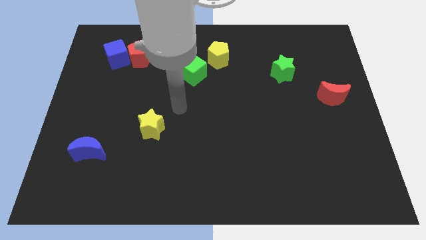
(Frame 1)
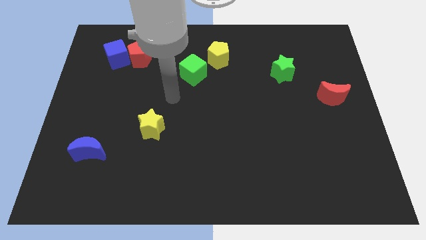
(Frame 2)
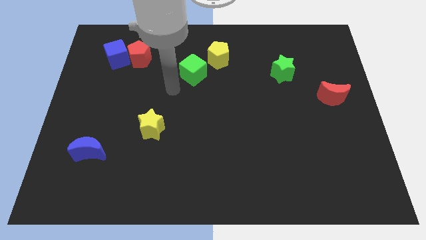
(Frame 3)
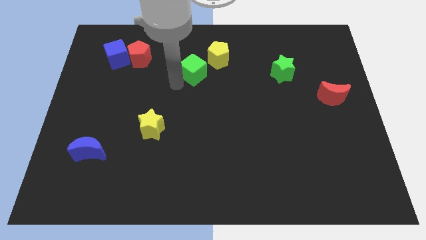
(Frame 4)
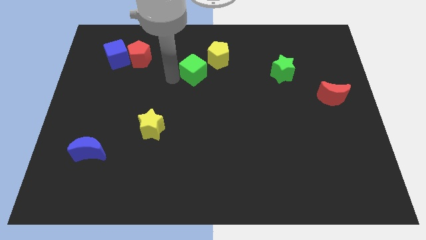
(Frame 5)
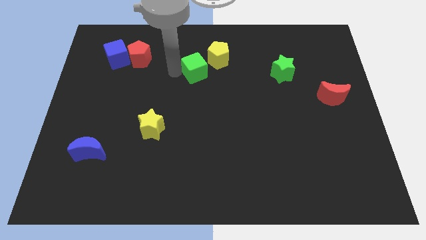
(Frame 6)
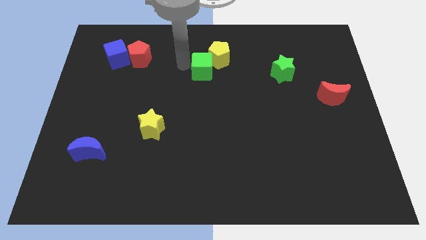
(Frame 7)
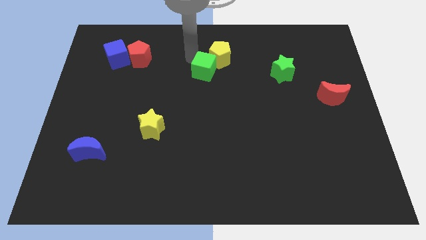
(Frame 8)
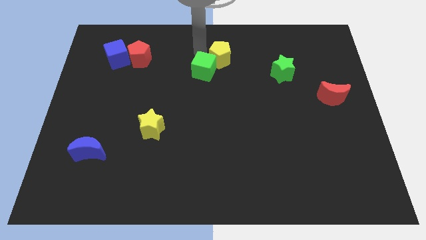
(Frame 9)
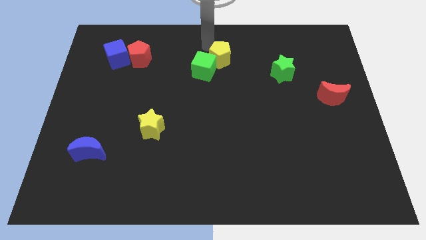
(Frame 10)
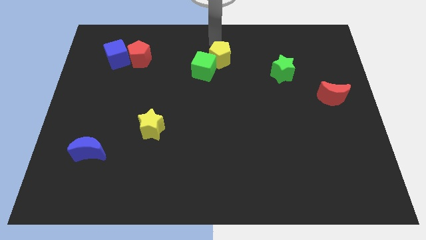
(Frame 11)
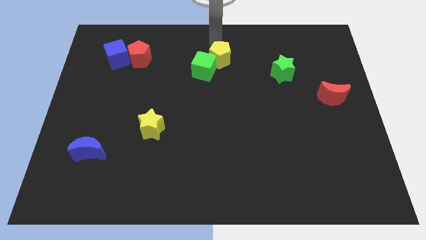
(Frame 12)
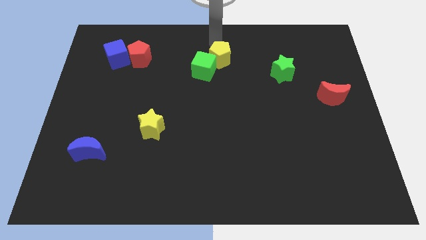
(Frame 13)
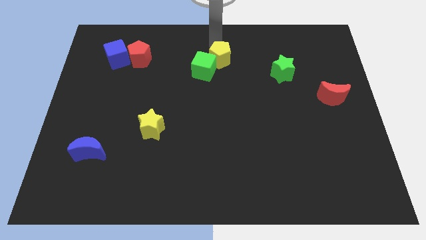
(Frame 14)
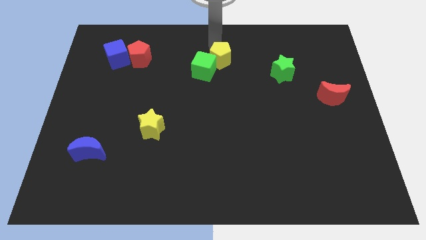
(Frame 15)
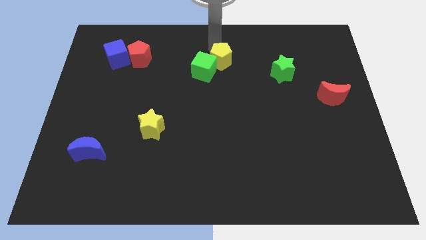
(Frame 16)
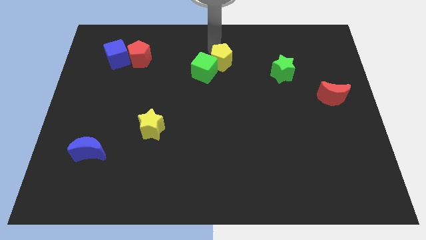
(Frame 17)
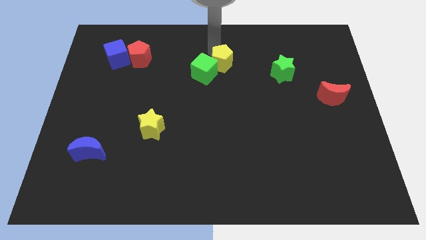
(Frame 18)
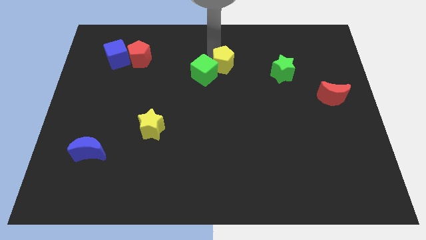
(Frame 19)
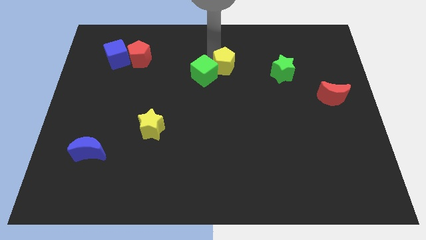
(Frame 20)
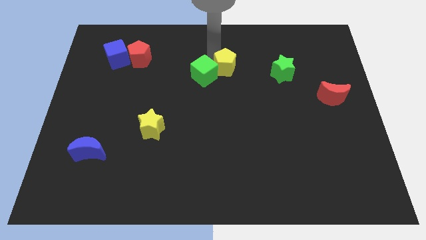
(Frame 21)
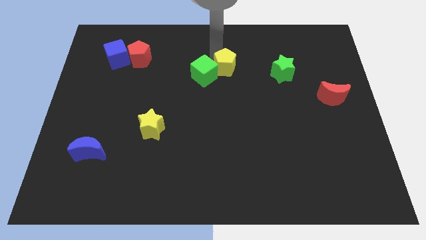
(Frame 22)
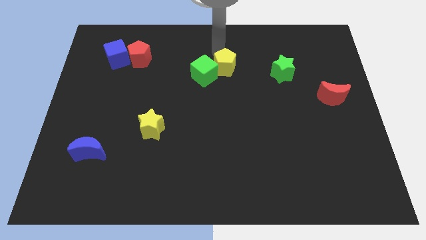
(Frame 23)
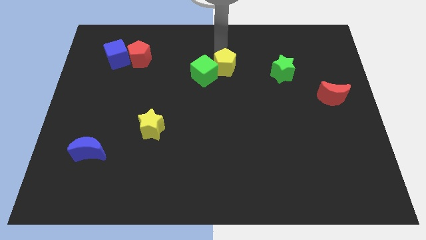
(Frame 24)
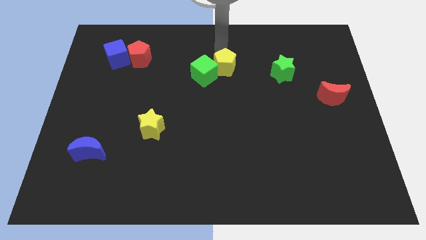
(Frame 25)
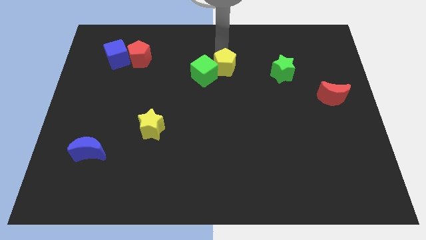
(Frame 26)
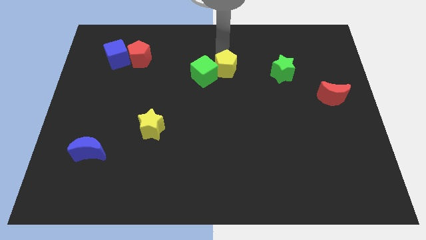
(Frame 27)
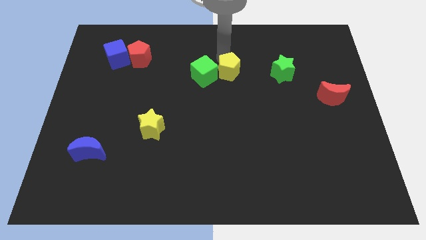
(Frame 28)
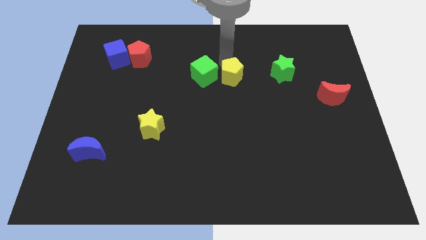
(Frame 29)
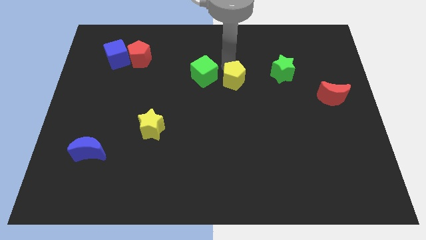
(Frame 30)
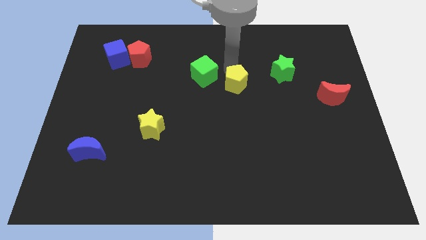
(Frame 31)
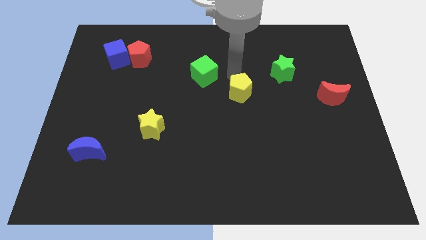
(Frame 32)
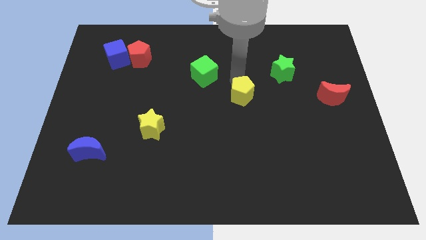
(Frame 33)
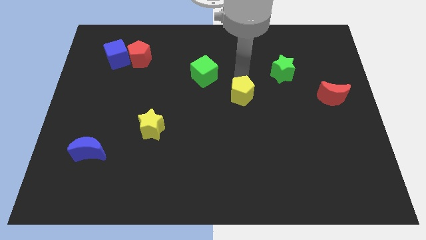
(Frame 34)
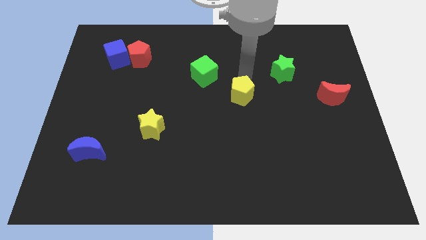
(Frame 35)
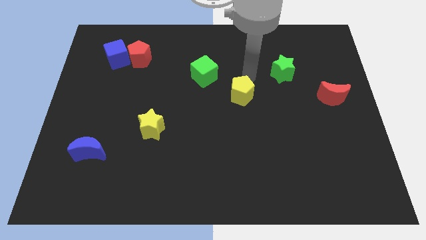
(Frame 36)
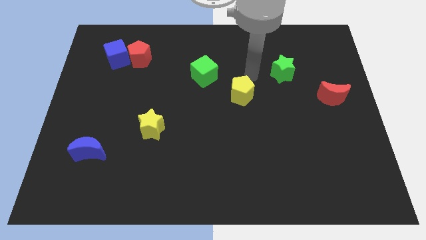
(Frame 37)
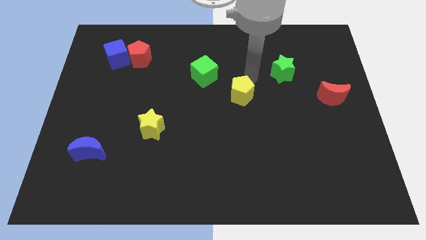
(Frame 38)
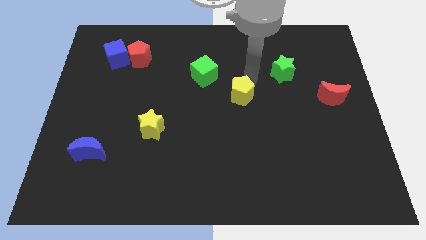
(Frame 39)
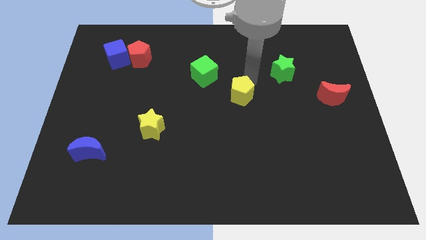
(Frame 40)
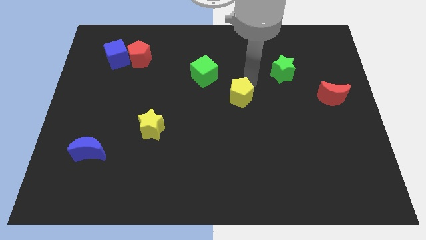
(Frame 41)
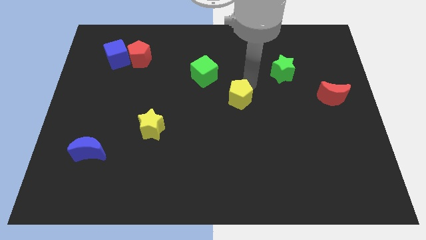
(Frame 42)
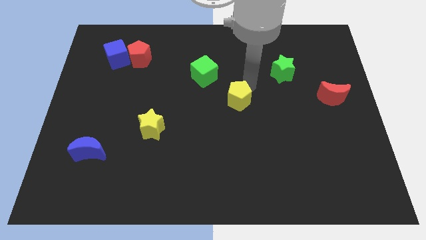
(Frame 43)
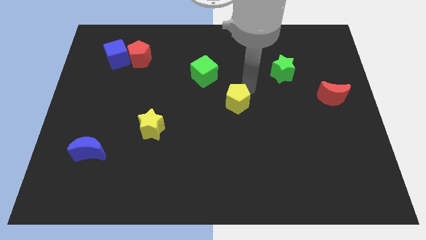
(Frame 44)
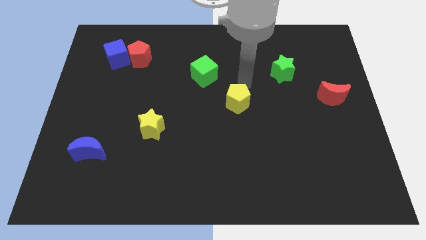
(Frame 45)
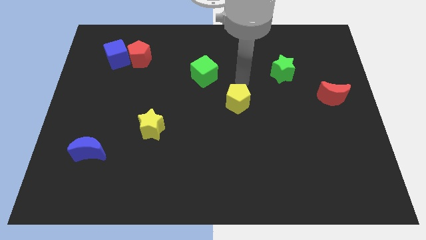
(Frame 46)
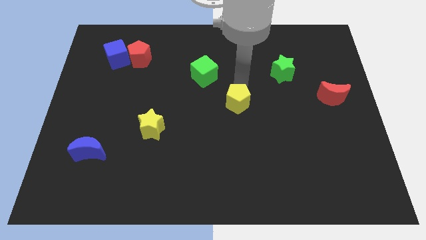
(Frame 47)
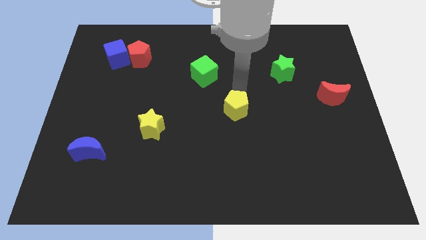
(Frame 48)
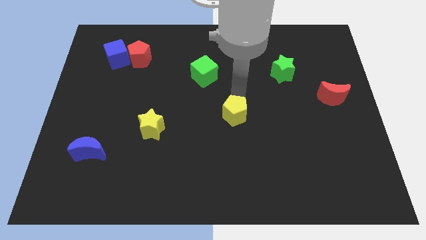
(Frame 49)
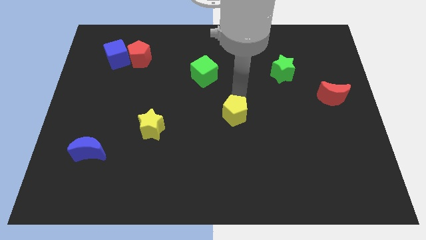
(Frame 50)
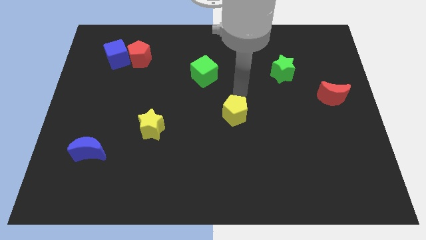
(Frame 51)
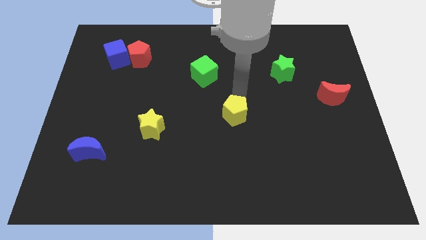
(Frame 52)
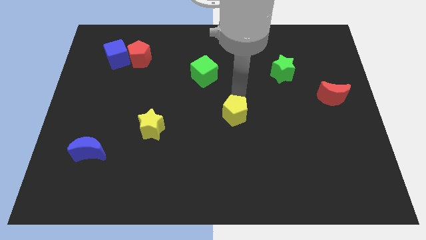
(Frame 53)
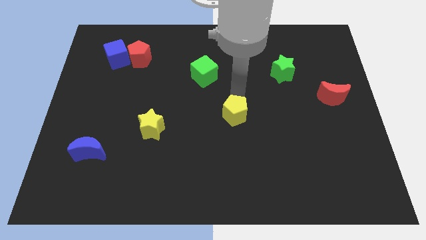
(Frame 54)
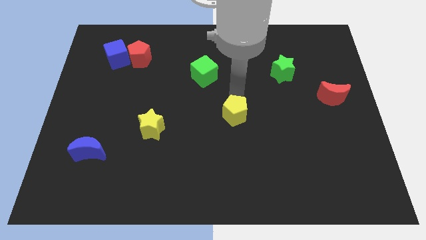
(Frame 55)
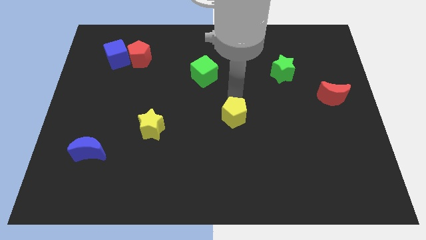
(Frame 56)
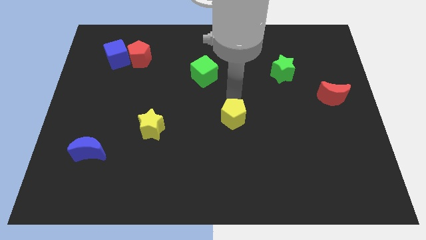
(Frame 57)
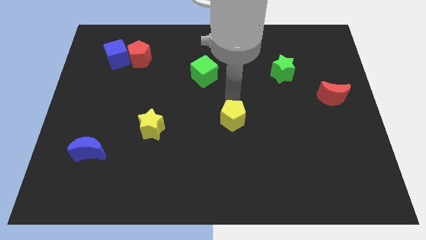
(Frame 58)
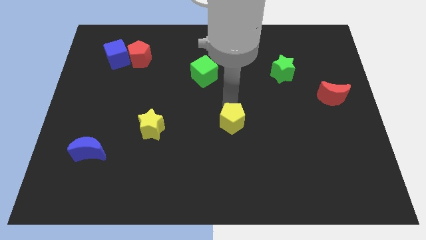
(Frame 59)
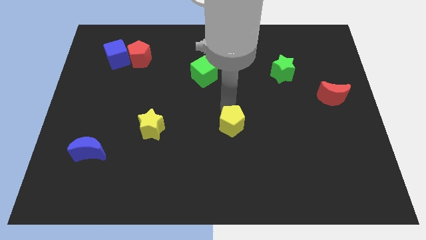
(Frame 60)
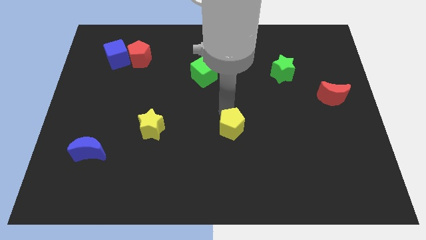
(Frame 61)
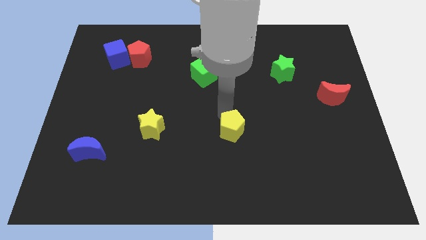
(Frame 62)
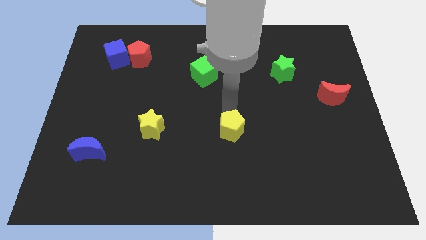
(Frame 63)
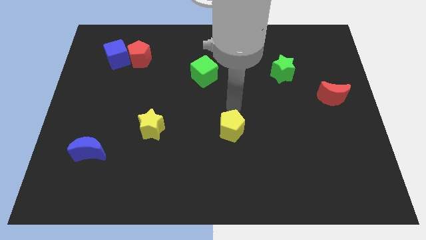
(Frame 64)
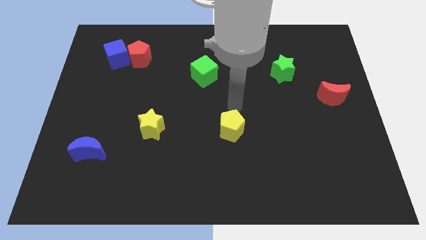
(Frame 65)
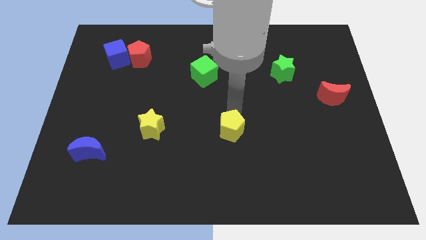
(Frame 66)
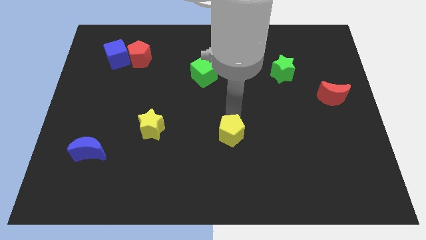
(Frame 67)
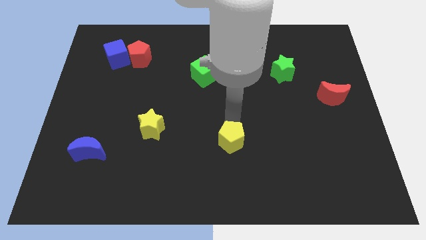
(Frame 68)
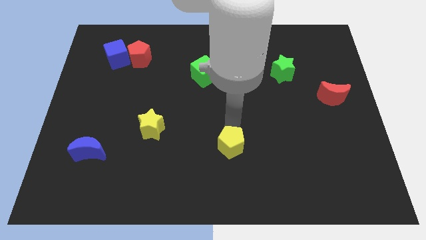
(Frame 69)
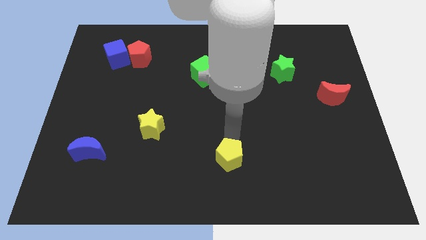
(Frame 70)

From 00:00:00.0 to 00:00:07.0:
put the yellow pentagon to the bottom
